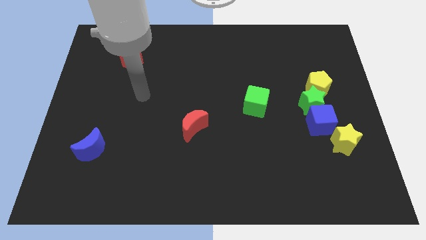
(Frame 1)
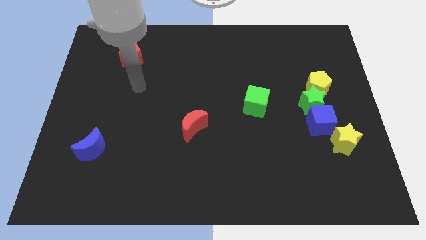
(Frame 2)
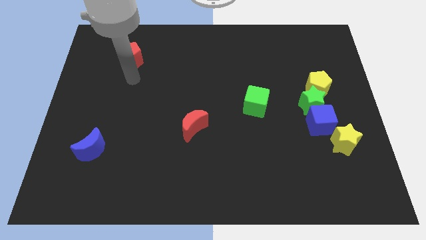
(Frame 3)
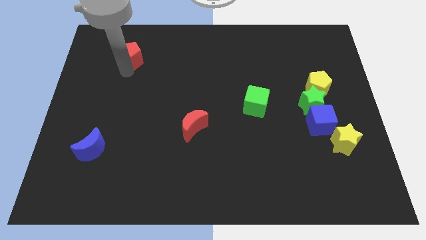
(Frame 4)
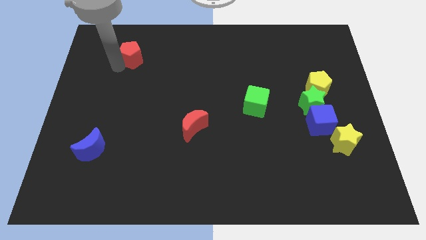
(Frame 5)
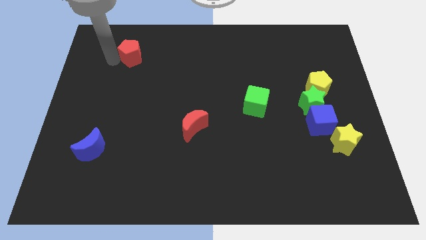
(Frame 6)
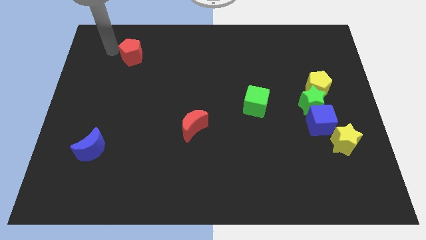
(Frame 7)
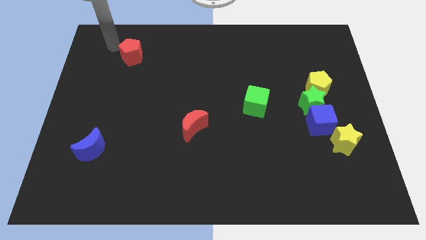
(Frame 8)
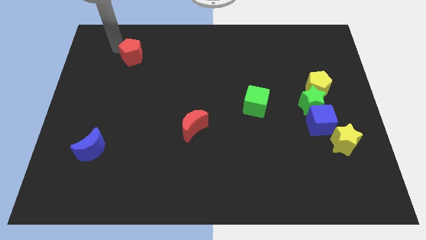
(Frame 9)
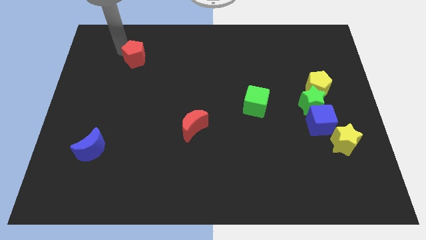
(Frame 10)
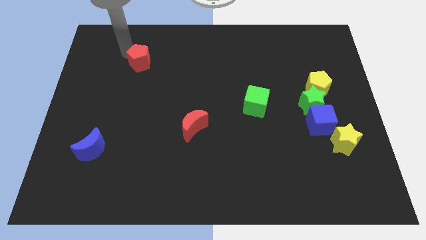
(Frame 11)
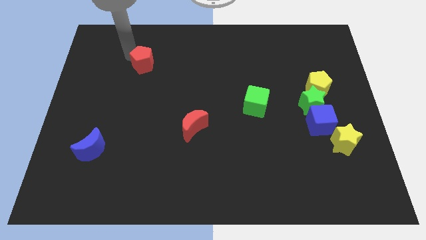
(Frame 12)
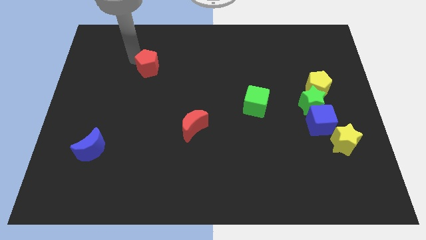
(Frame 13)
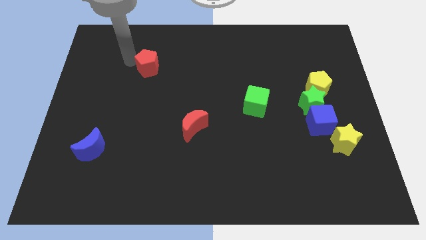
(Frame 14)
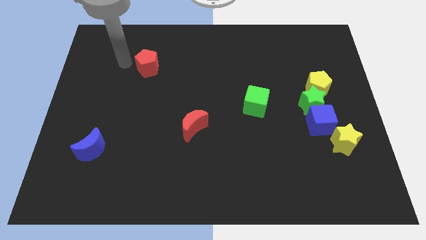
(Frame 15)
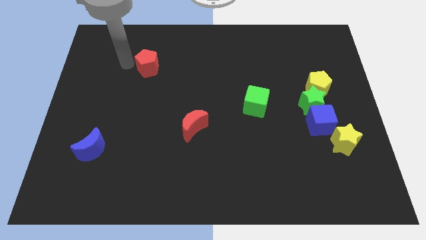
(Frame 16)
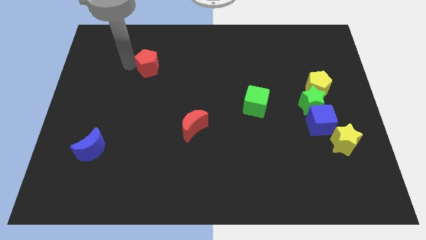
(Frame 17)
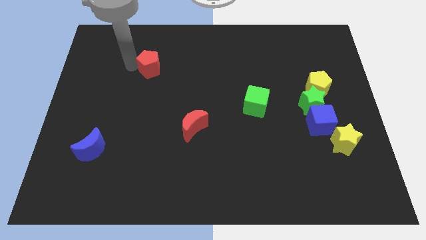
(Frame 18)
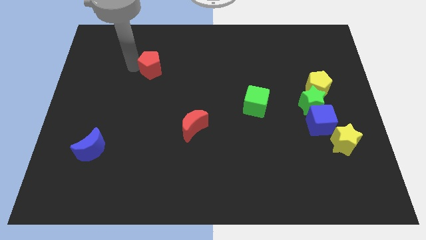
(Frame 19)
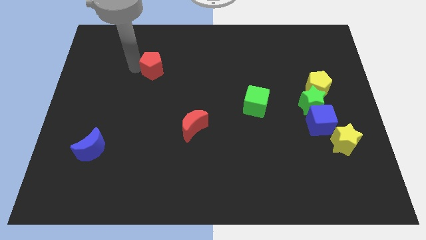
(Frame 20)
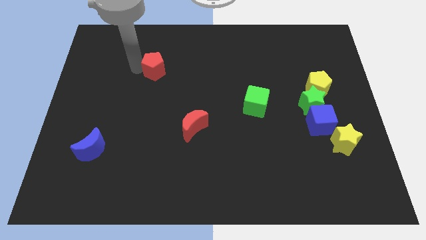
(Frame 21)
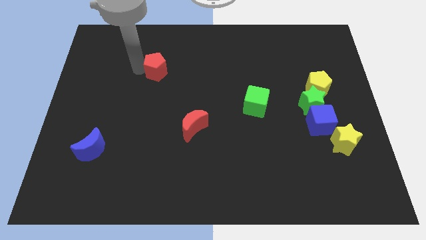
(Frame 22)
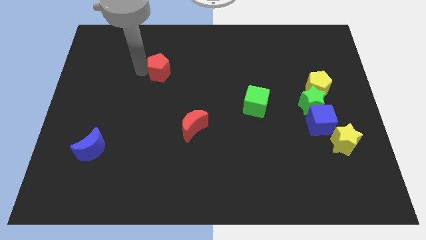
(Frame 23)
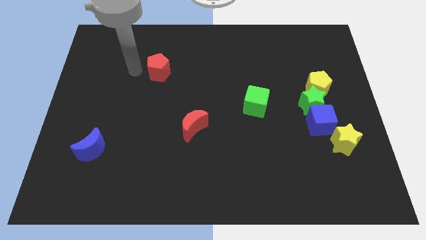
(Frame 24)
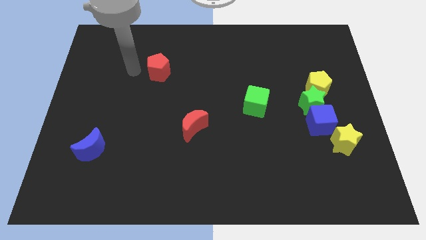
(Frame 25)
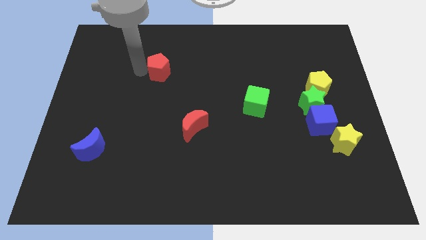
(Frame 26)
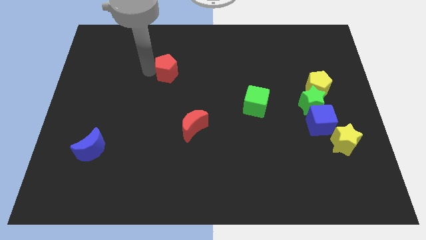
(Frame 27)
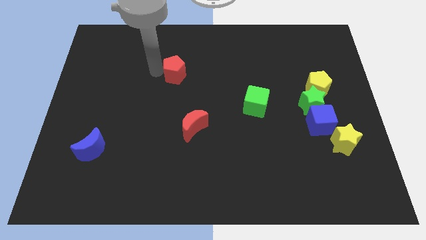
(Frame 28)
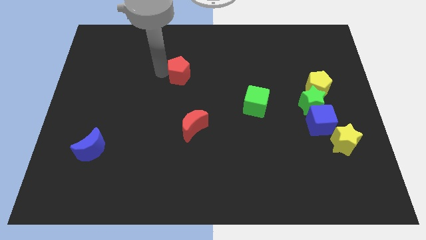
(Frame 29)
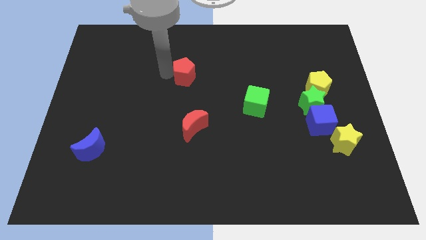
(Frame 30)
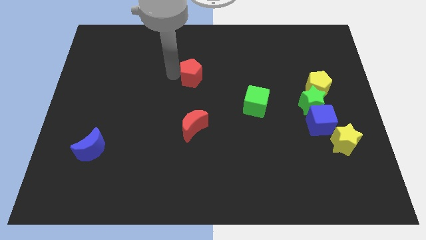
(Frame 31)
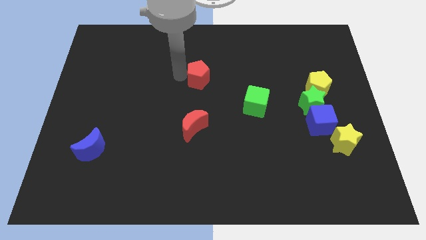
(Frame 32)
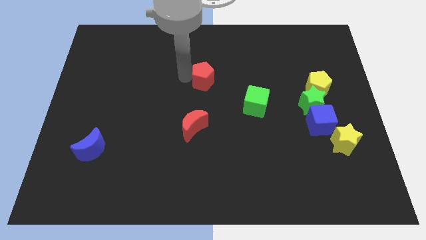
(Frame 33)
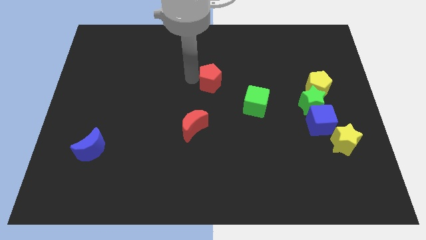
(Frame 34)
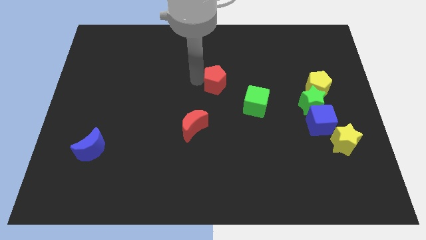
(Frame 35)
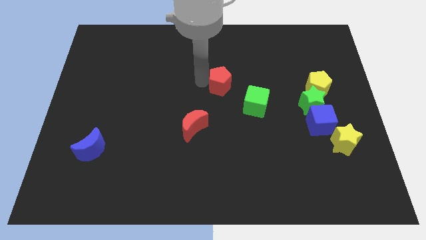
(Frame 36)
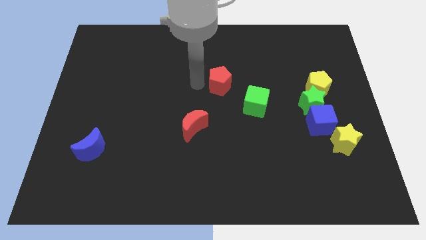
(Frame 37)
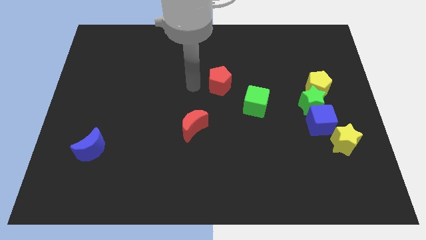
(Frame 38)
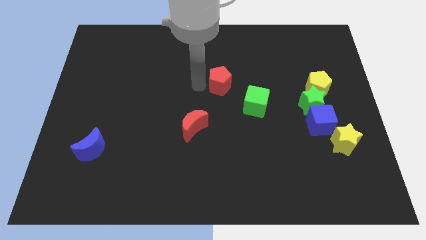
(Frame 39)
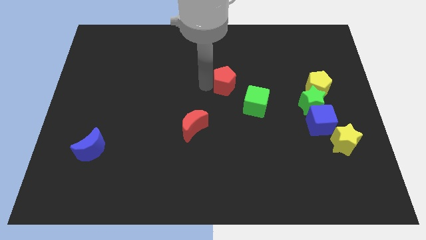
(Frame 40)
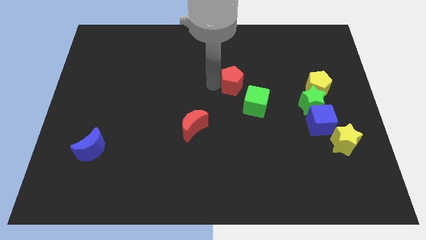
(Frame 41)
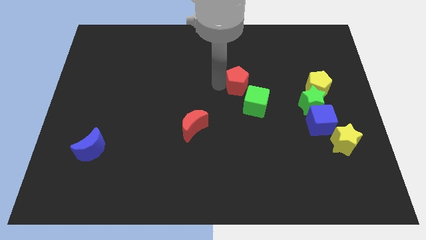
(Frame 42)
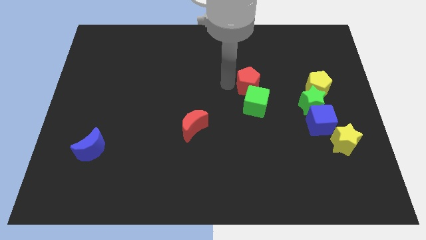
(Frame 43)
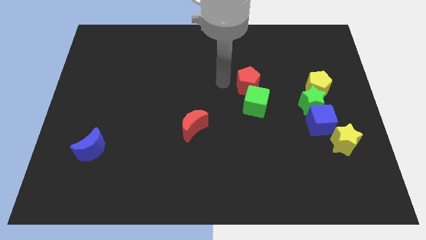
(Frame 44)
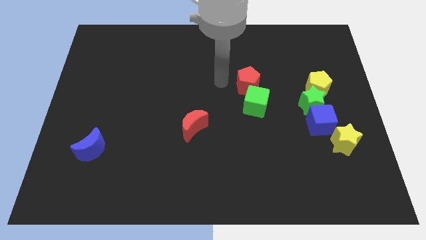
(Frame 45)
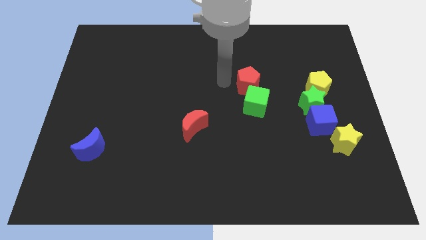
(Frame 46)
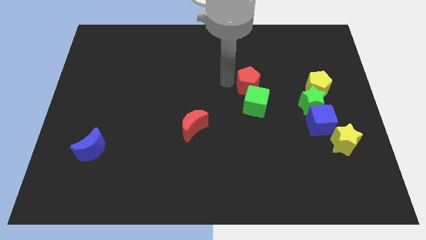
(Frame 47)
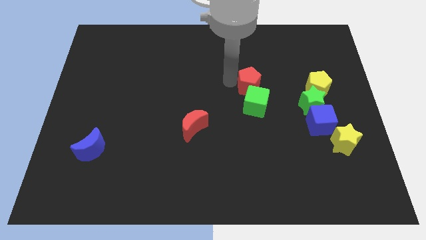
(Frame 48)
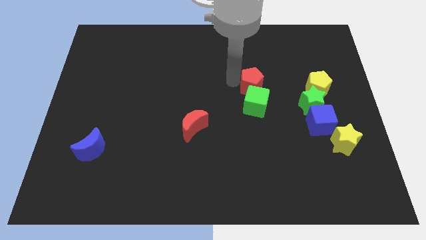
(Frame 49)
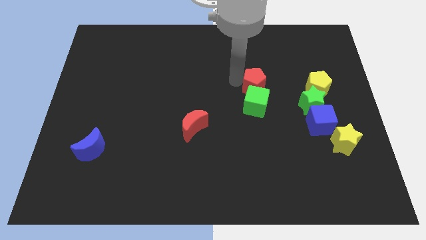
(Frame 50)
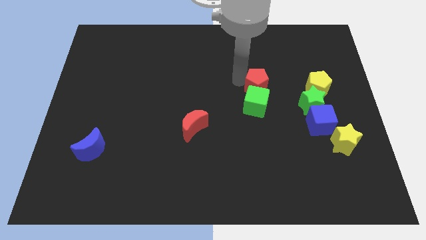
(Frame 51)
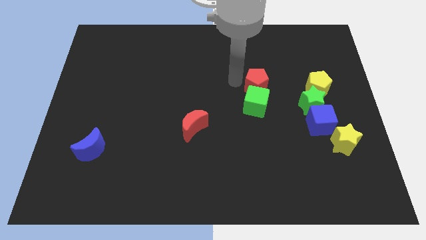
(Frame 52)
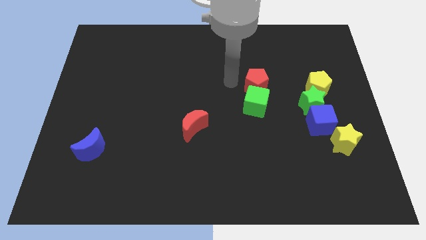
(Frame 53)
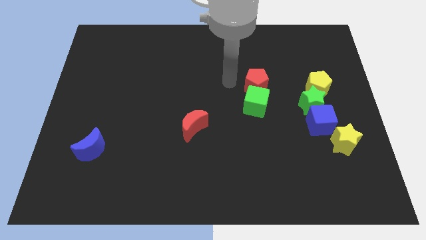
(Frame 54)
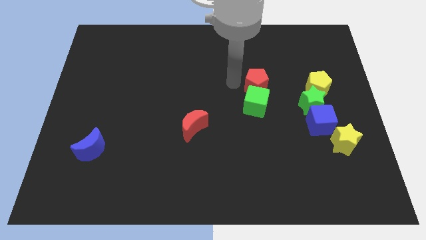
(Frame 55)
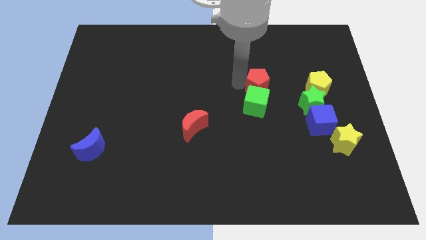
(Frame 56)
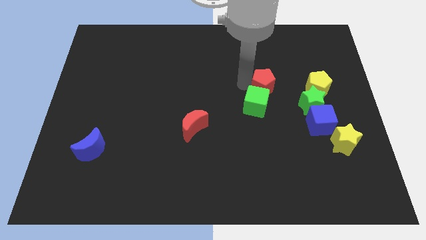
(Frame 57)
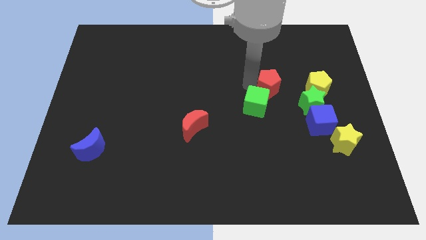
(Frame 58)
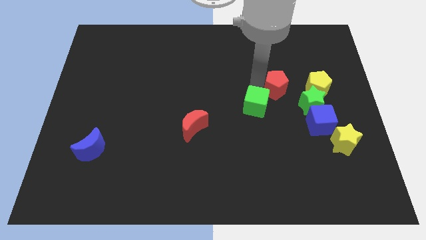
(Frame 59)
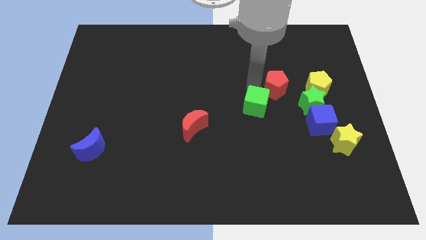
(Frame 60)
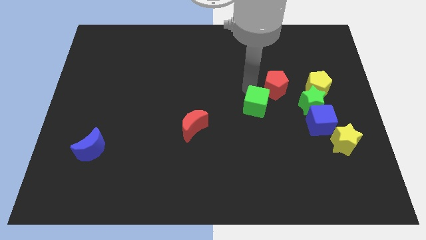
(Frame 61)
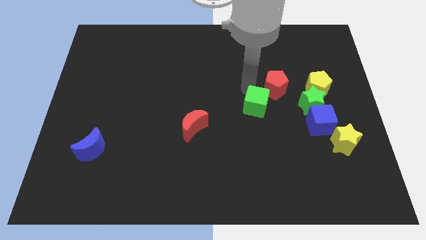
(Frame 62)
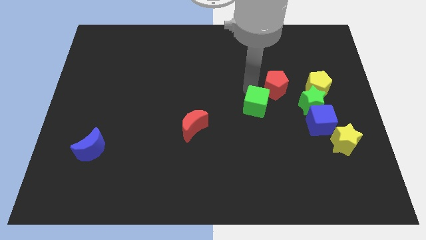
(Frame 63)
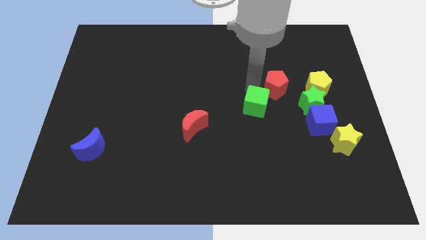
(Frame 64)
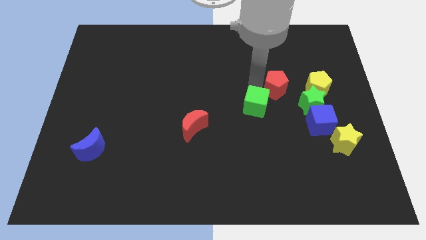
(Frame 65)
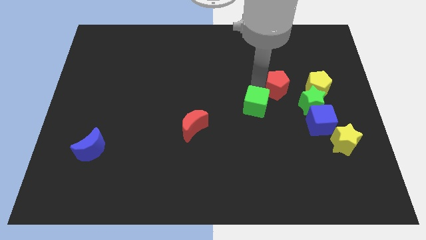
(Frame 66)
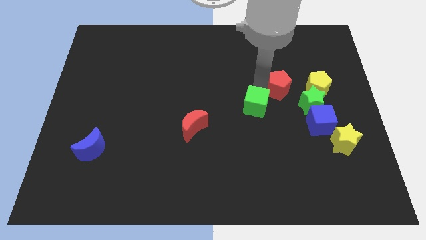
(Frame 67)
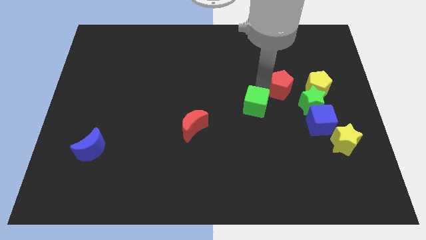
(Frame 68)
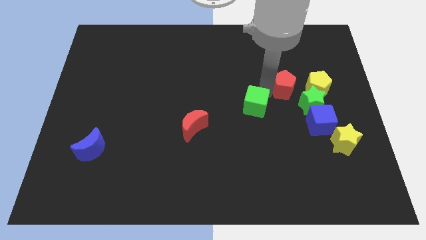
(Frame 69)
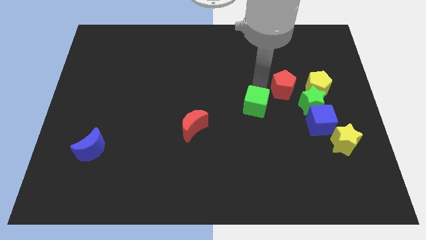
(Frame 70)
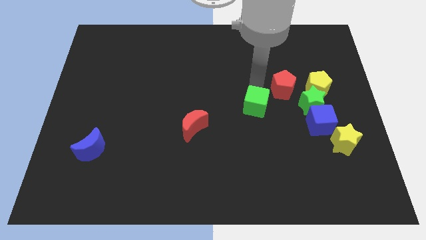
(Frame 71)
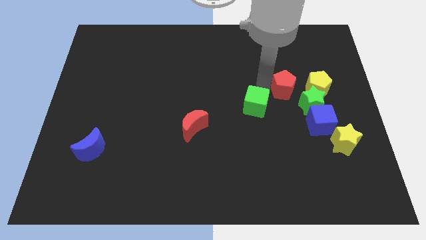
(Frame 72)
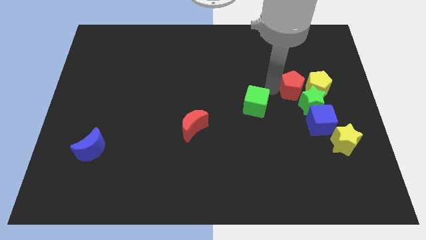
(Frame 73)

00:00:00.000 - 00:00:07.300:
slide the red pentagon to the yellow pentagon
